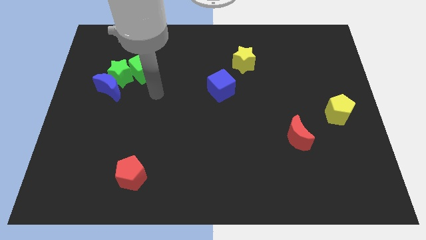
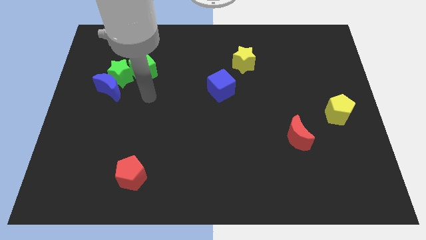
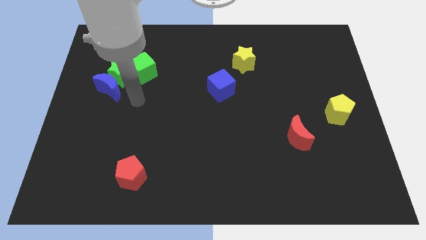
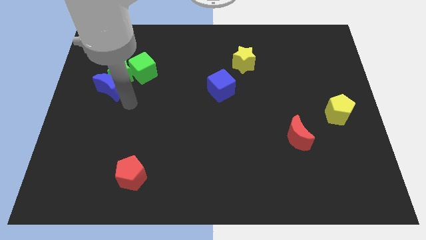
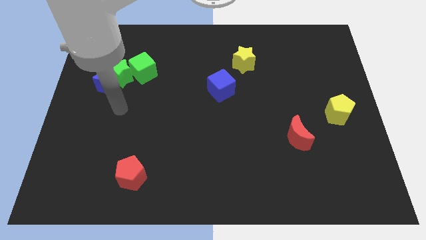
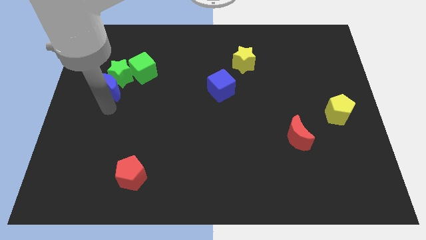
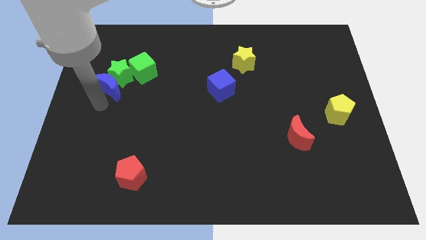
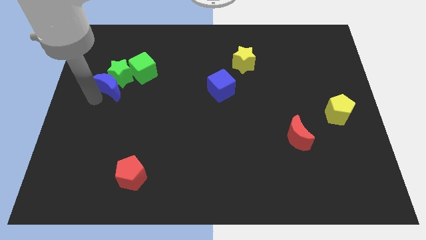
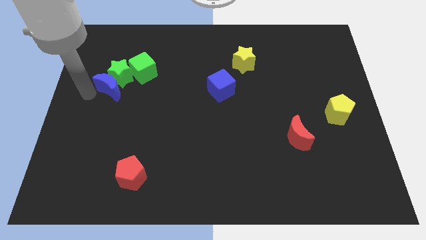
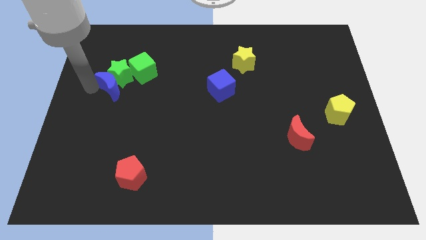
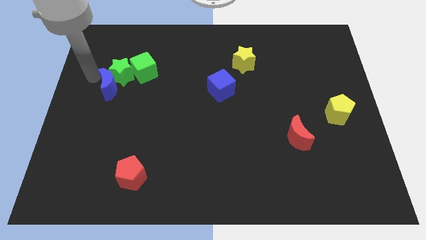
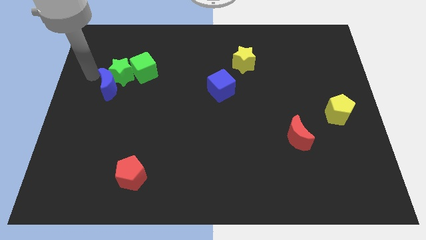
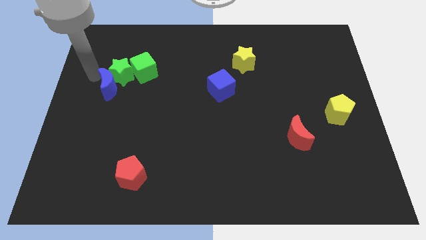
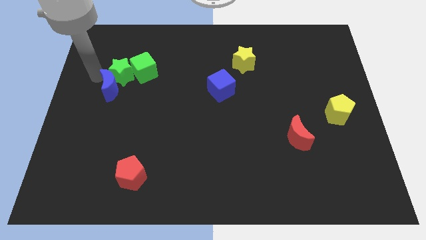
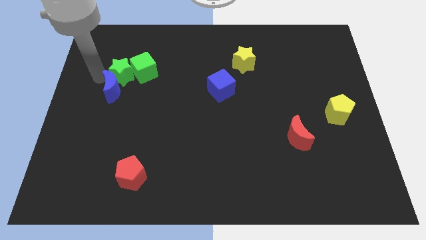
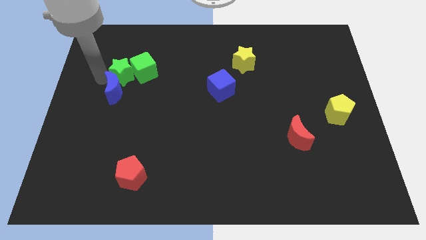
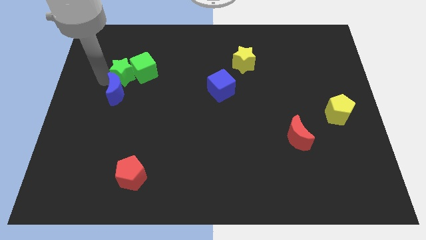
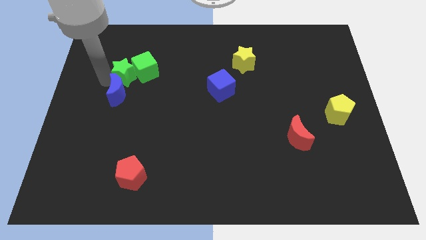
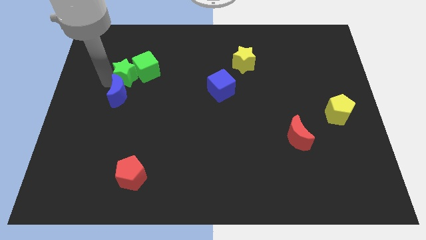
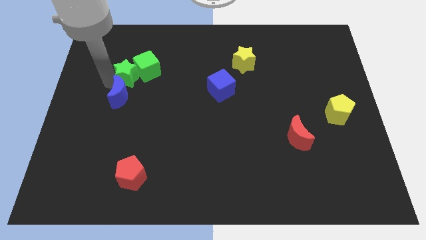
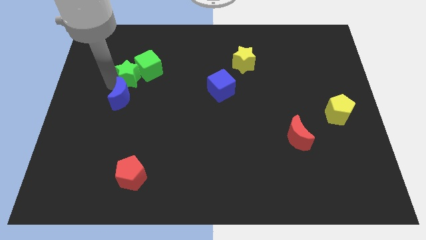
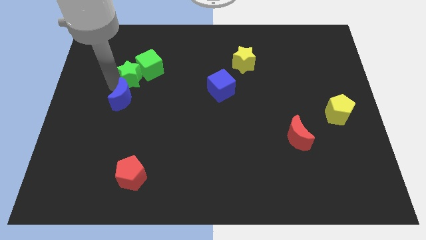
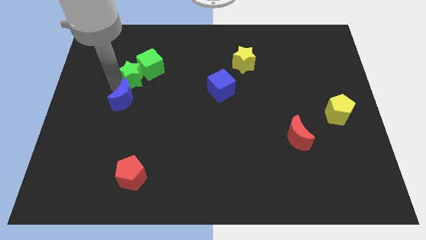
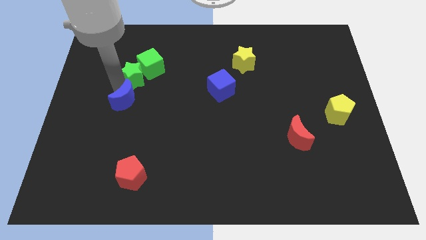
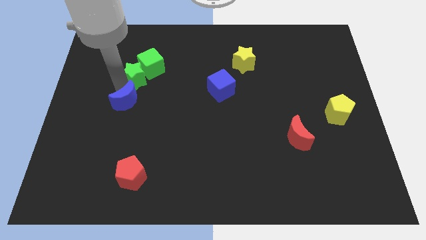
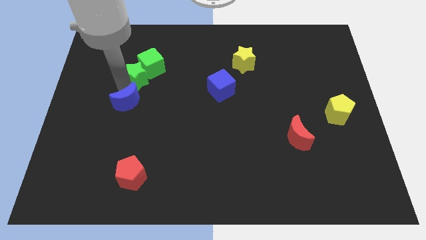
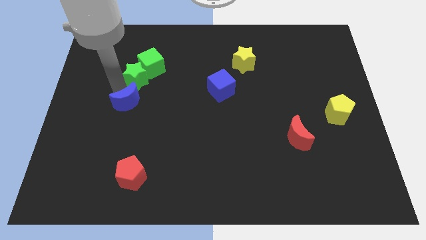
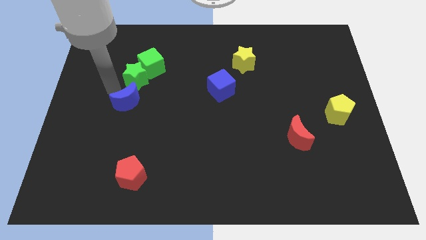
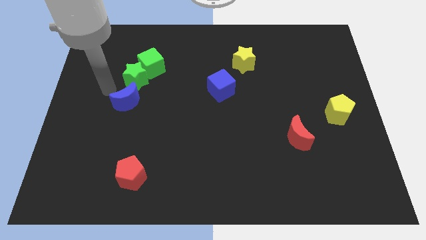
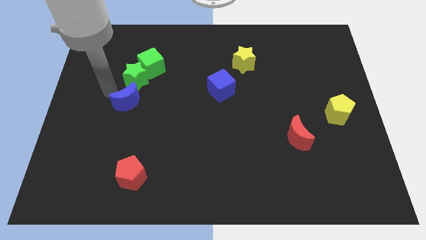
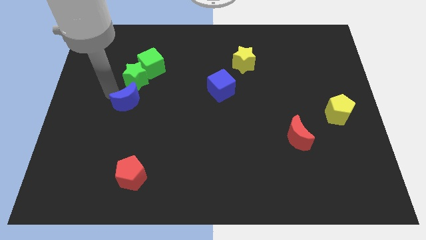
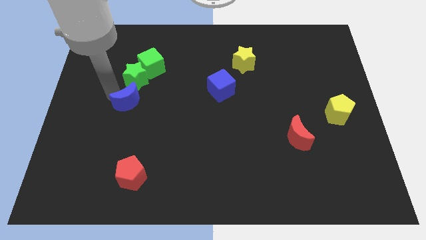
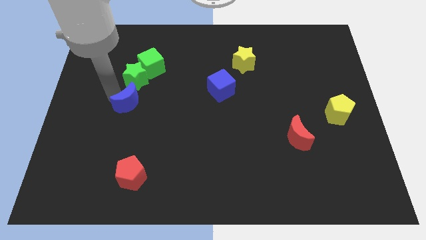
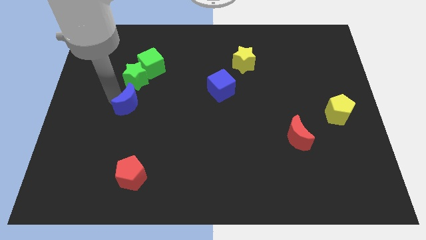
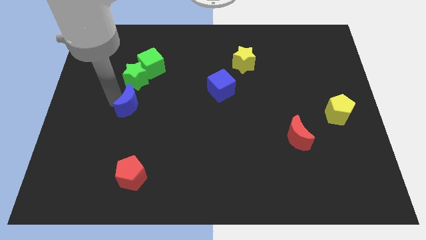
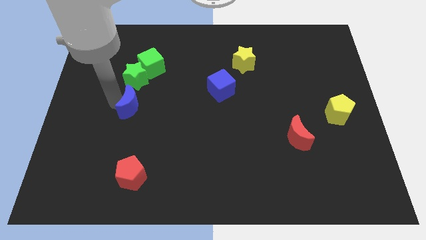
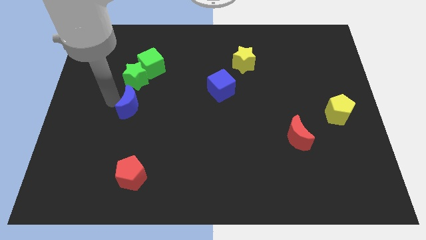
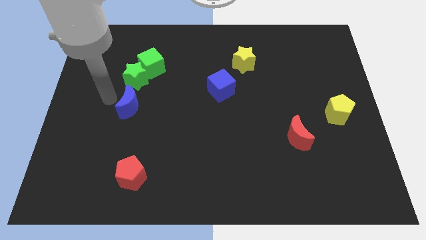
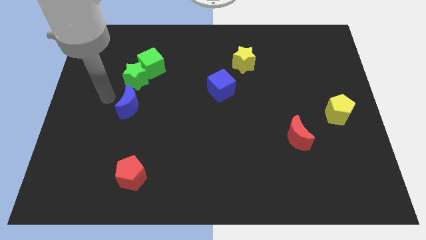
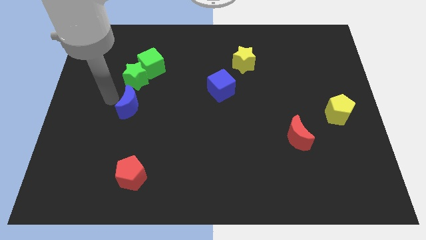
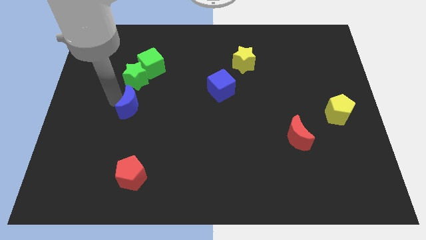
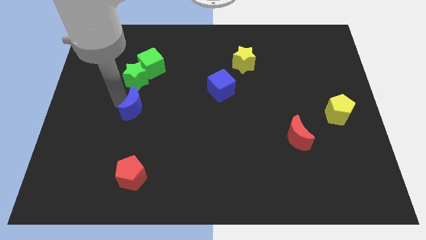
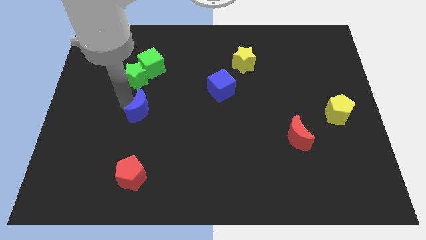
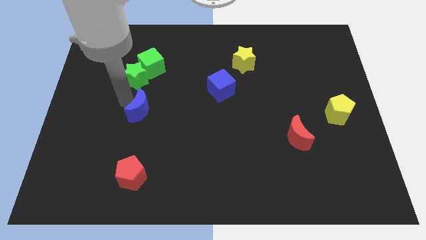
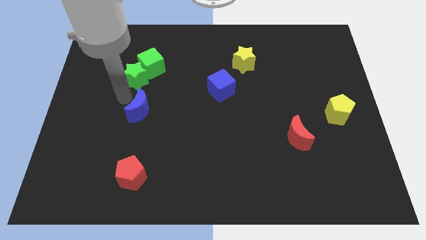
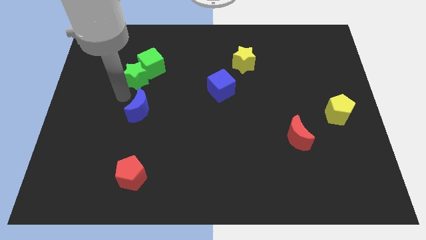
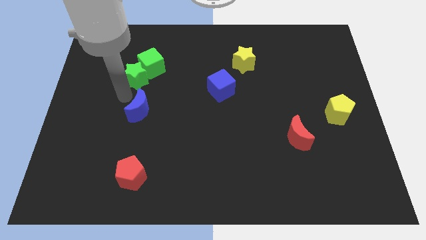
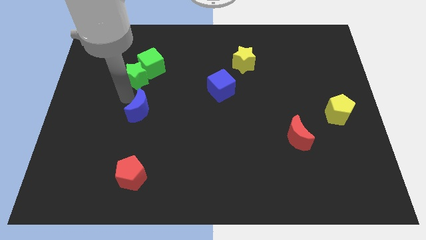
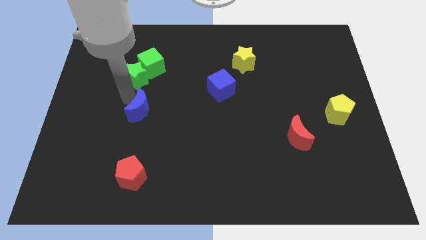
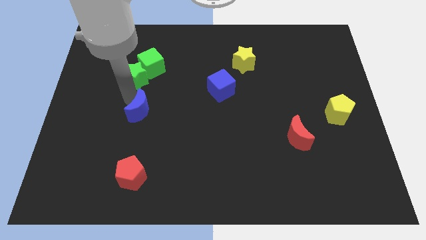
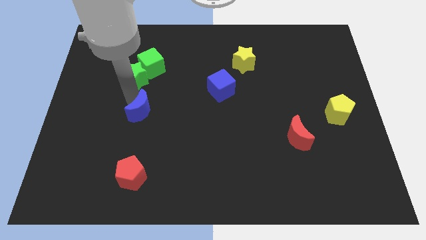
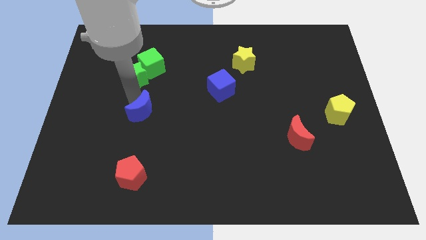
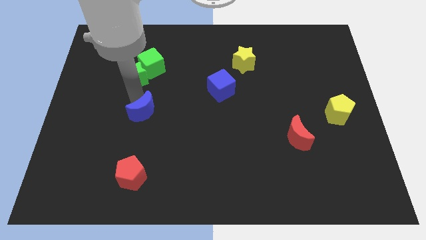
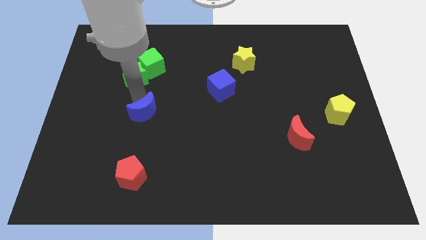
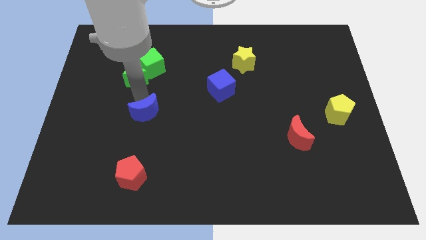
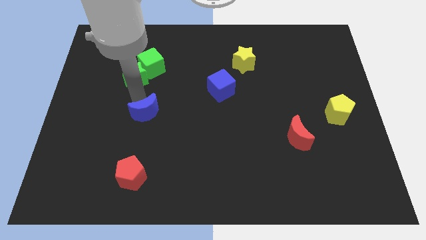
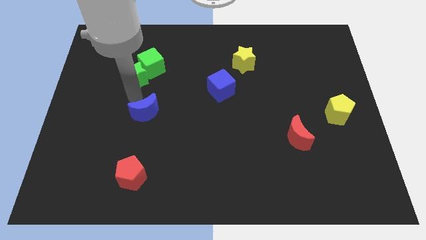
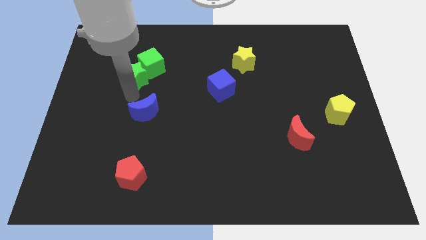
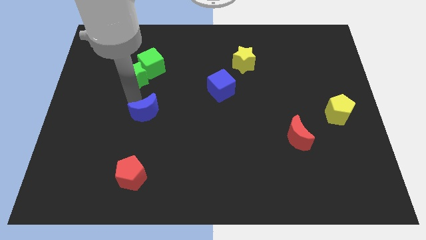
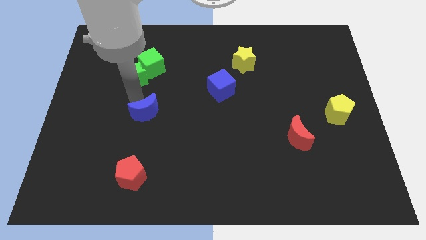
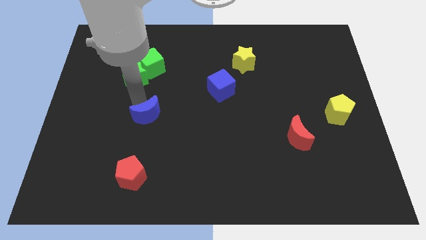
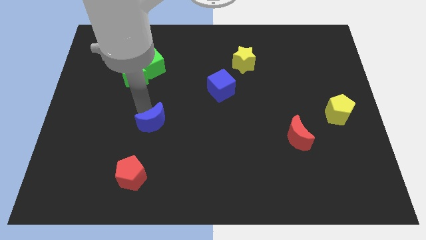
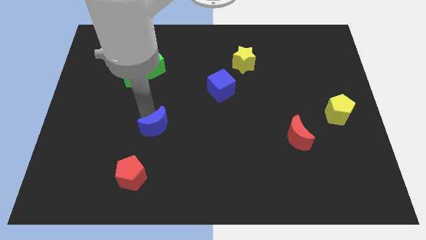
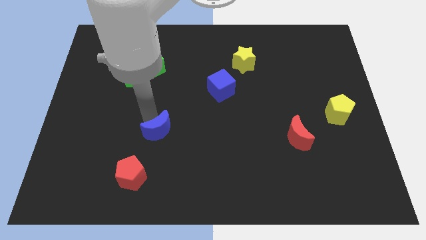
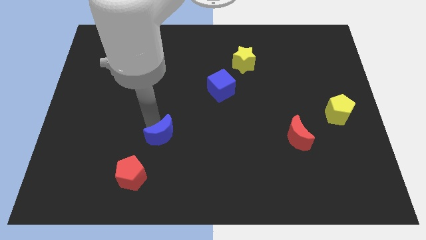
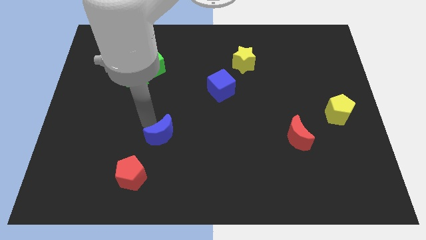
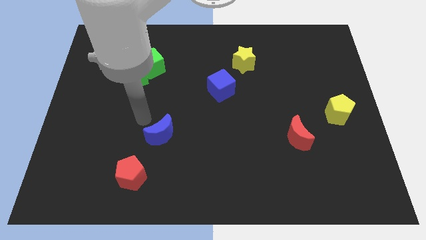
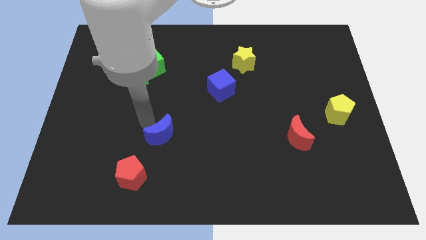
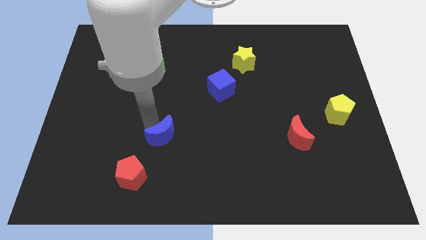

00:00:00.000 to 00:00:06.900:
move the blue moon down and then to the right

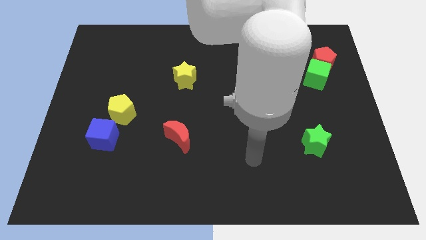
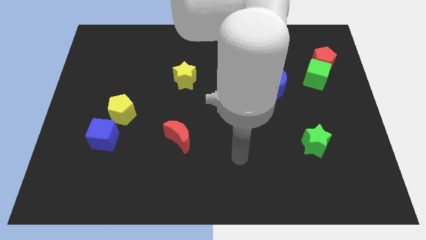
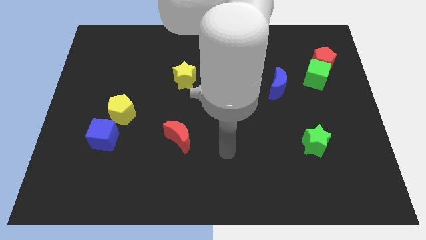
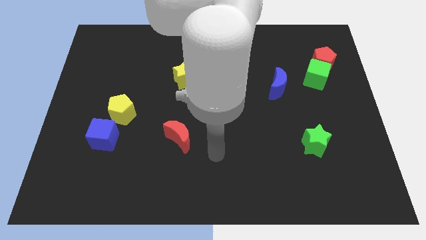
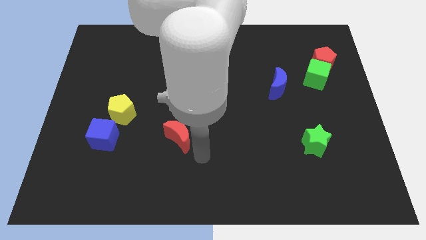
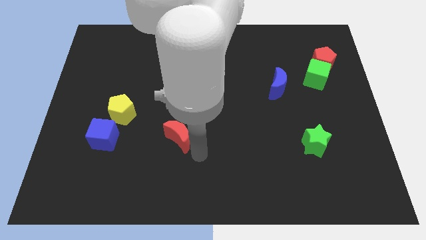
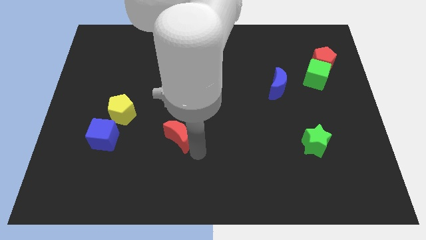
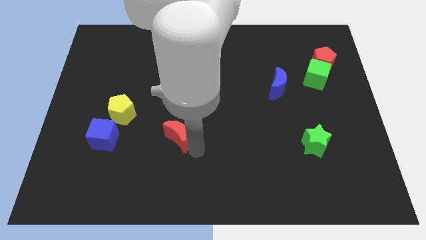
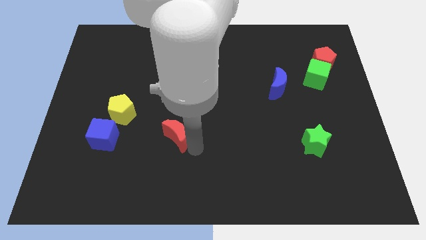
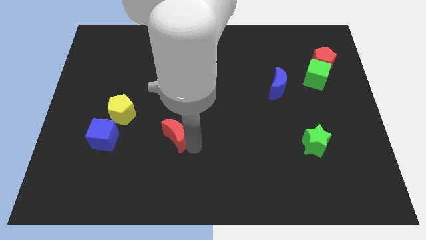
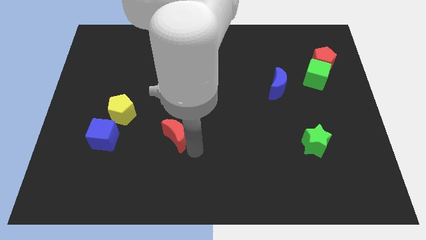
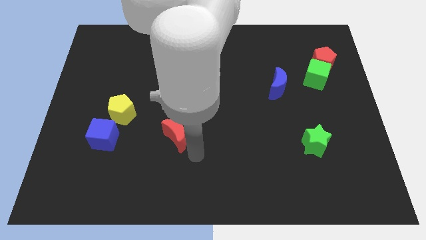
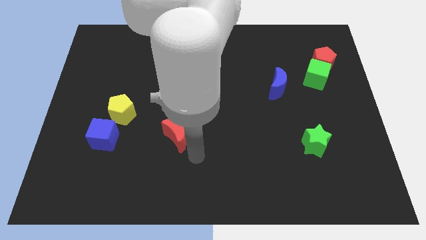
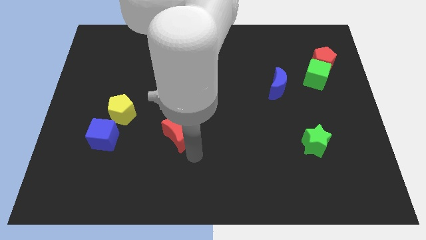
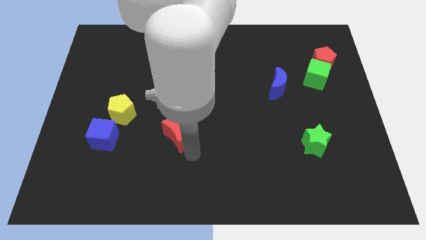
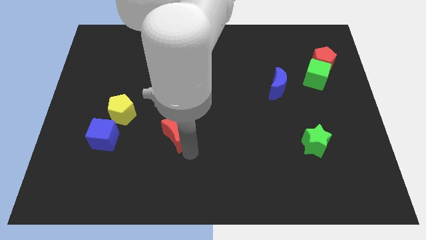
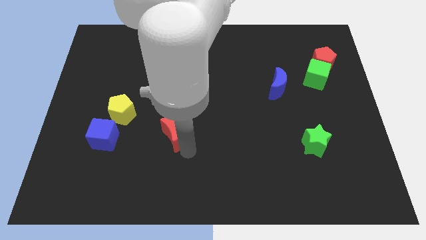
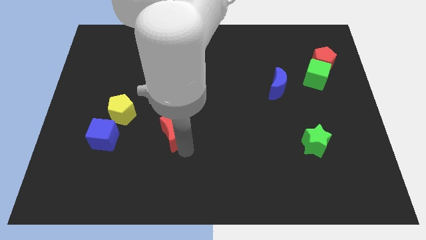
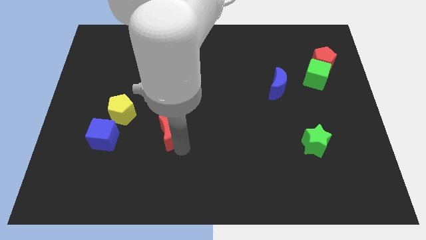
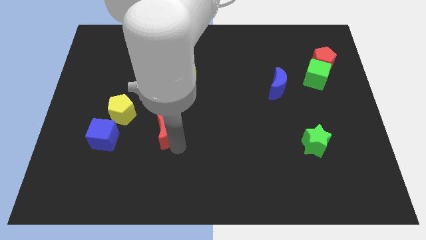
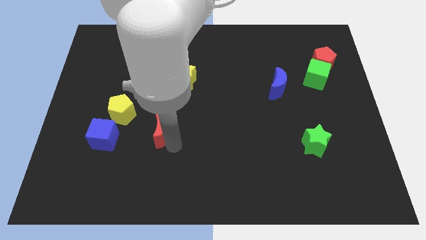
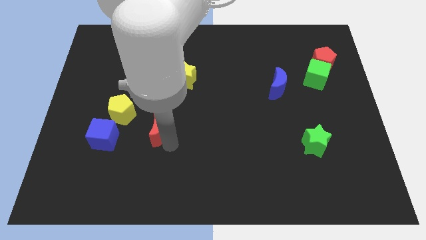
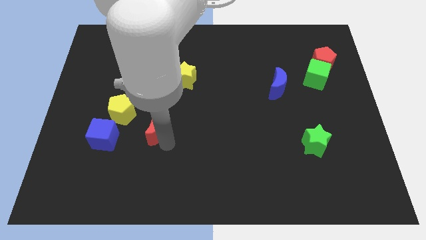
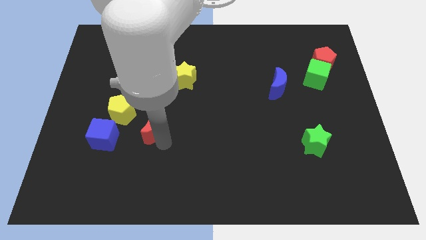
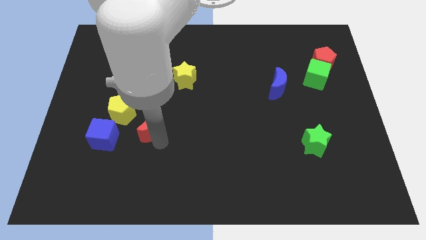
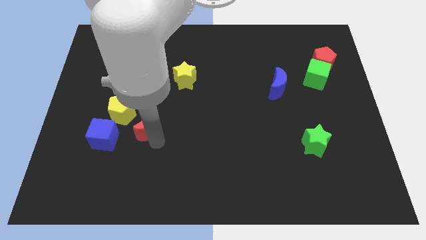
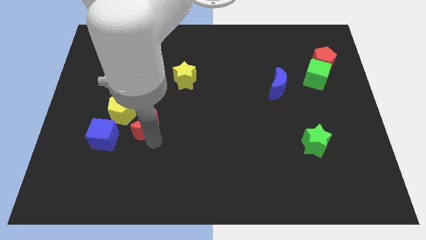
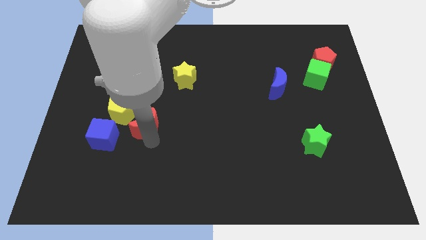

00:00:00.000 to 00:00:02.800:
slightly slide the red moon diagonally up and left
